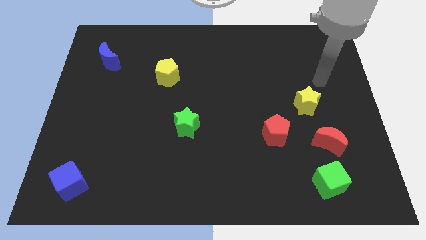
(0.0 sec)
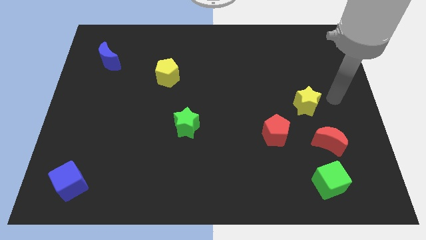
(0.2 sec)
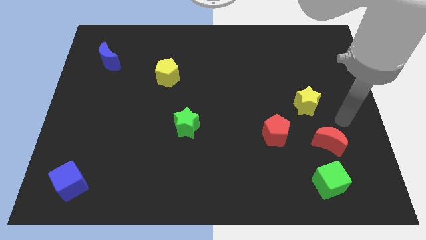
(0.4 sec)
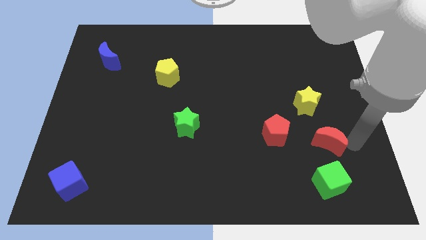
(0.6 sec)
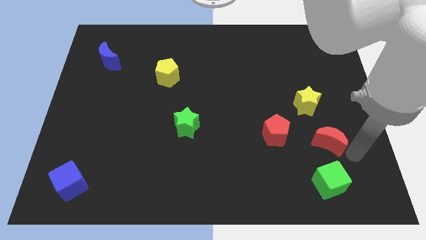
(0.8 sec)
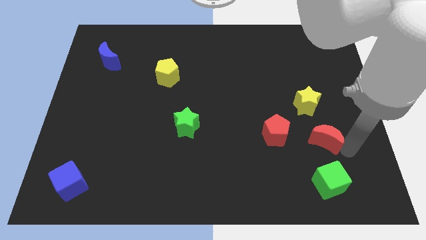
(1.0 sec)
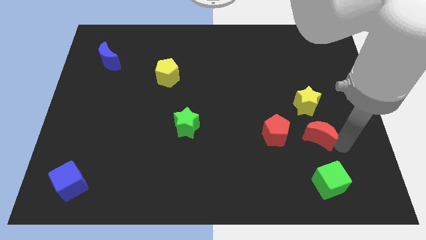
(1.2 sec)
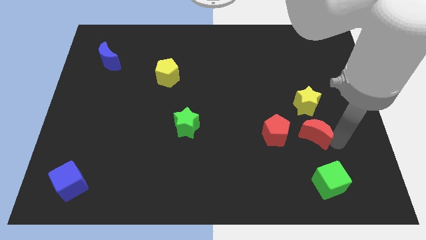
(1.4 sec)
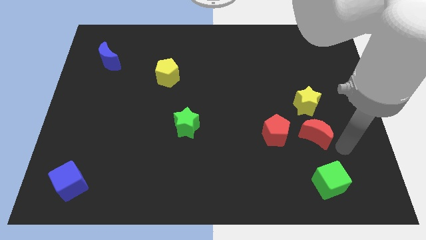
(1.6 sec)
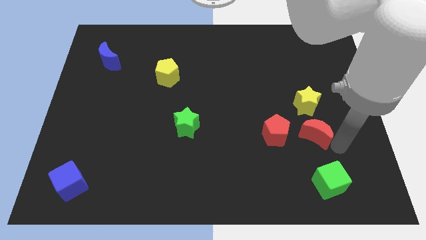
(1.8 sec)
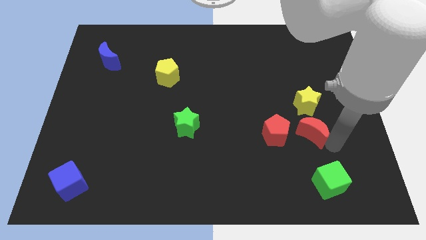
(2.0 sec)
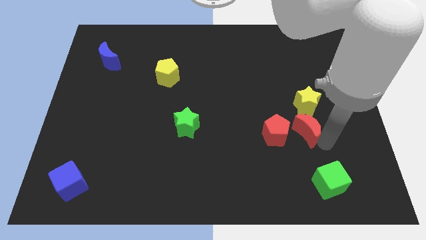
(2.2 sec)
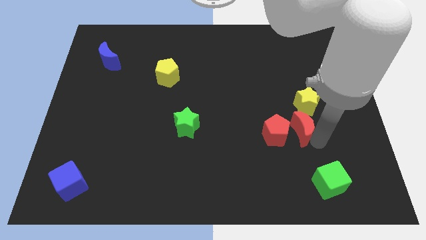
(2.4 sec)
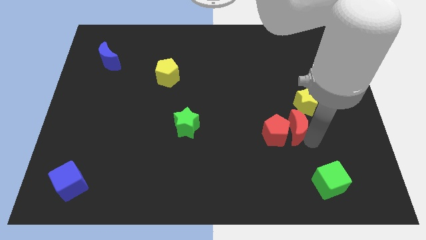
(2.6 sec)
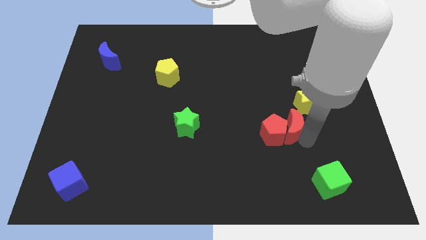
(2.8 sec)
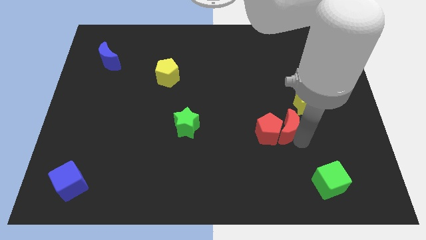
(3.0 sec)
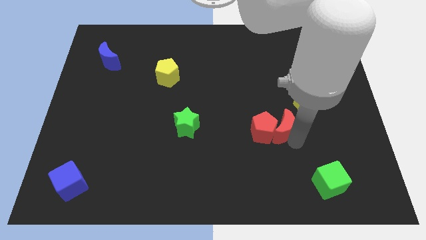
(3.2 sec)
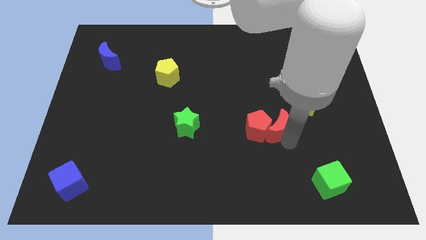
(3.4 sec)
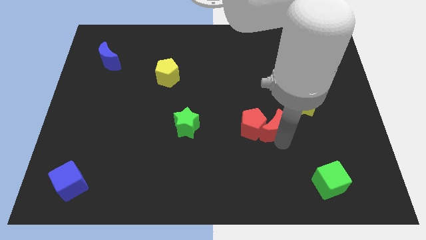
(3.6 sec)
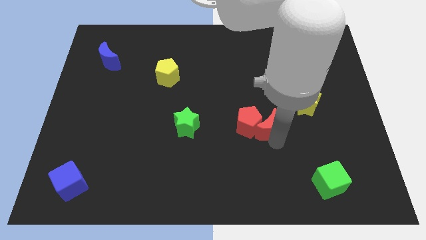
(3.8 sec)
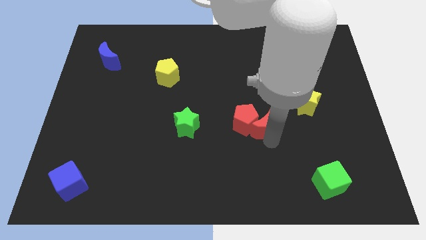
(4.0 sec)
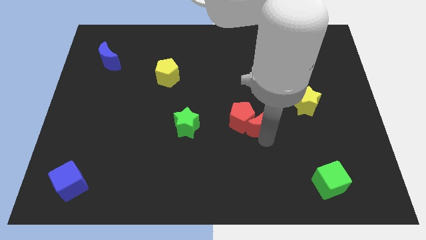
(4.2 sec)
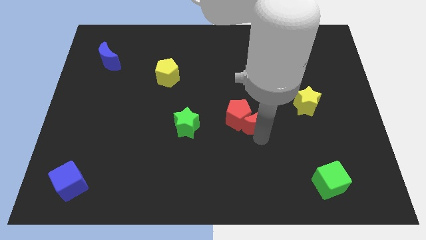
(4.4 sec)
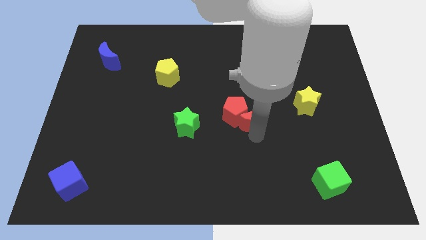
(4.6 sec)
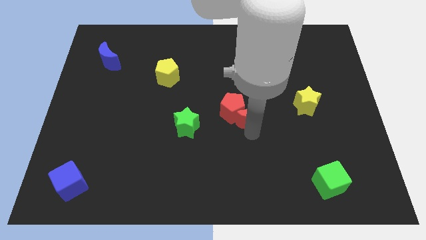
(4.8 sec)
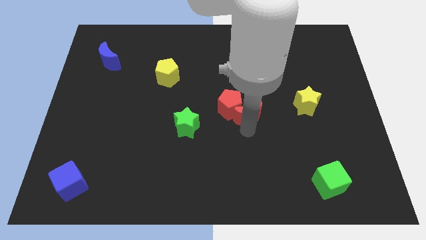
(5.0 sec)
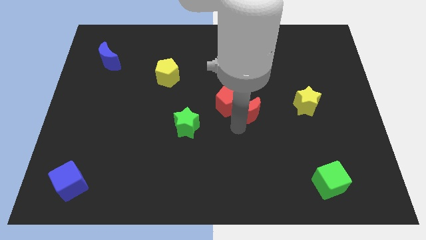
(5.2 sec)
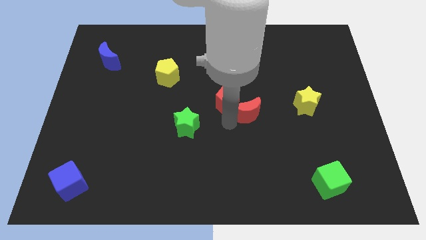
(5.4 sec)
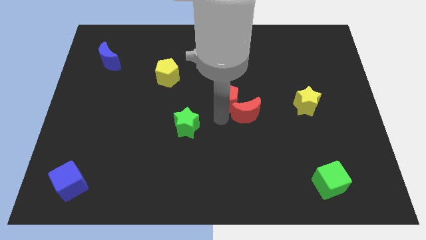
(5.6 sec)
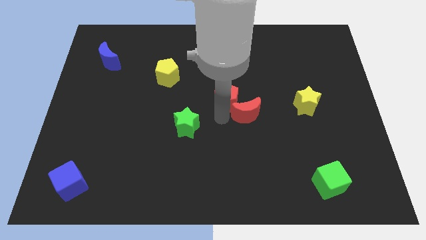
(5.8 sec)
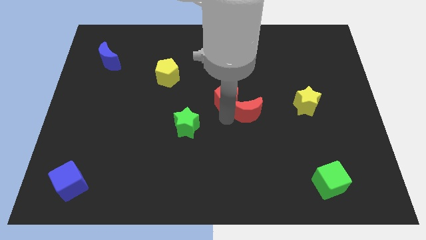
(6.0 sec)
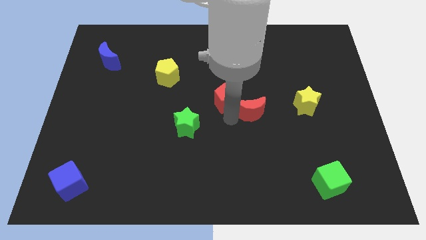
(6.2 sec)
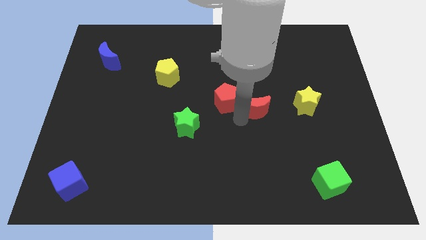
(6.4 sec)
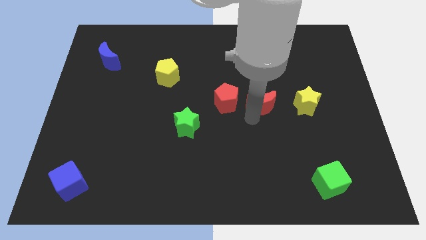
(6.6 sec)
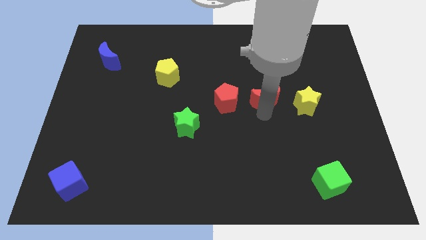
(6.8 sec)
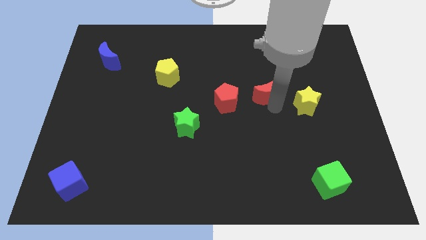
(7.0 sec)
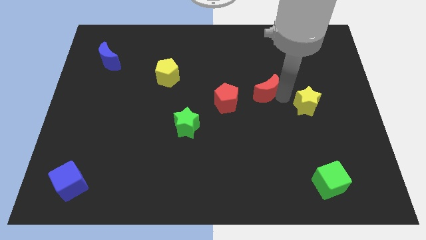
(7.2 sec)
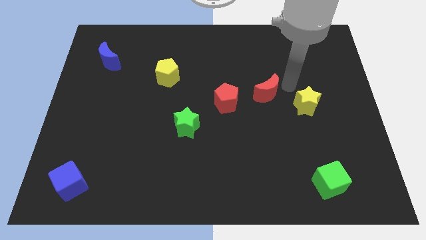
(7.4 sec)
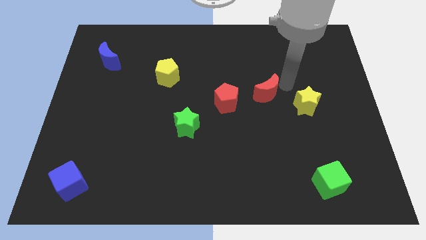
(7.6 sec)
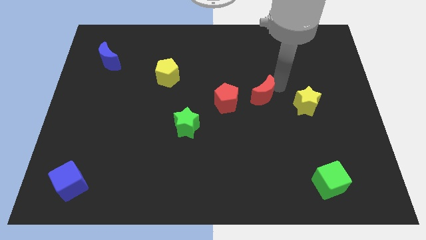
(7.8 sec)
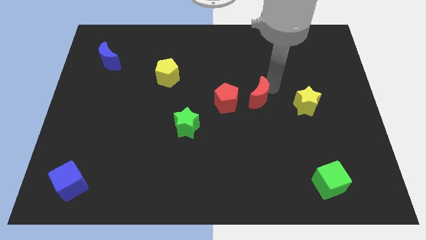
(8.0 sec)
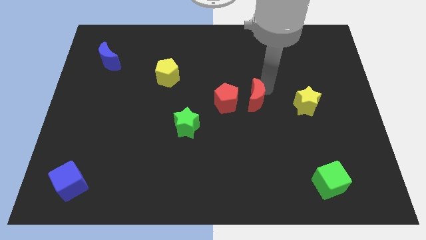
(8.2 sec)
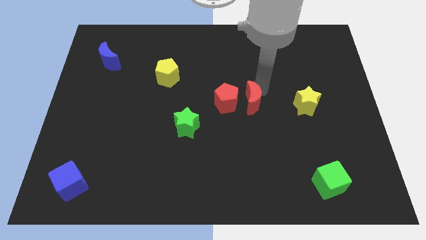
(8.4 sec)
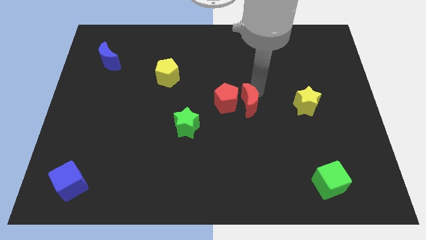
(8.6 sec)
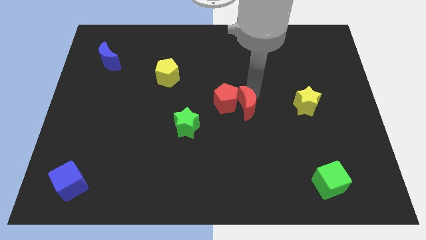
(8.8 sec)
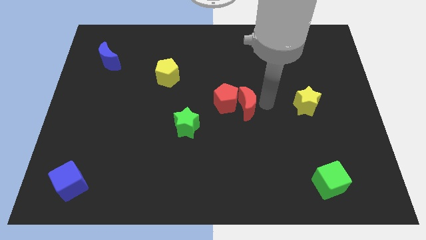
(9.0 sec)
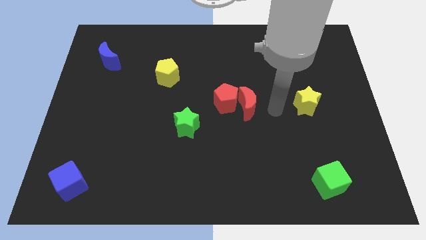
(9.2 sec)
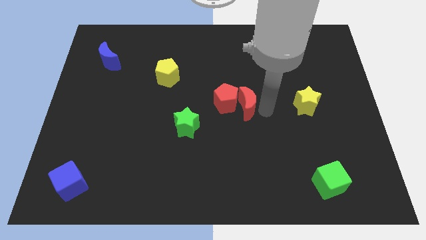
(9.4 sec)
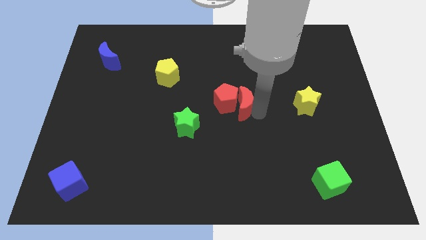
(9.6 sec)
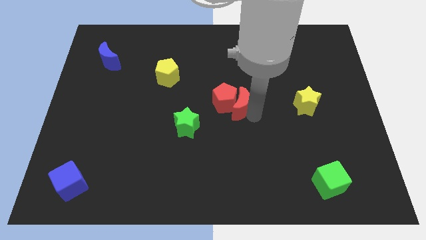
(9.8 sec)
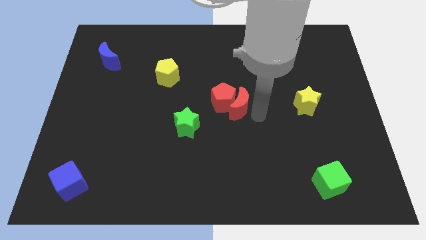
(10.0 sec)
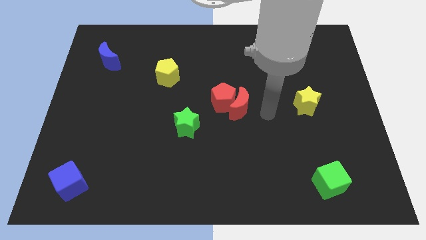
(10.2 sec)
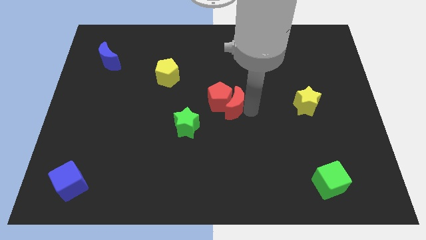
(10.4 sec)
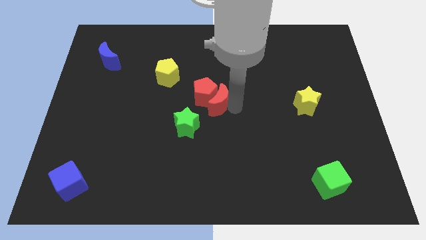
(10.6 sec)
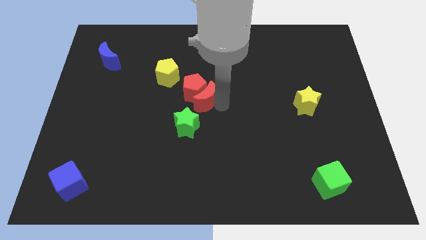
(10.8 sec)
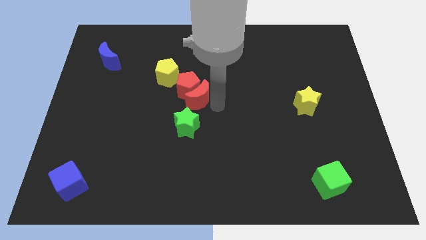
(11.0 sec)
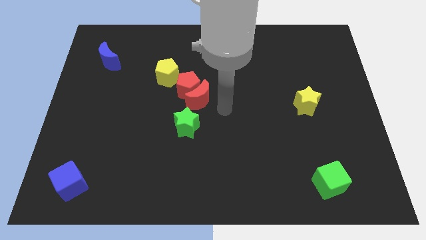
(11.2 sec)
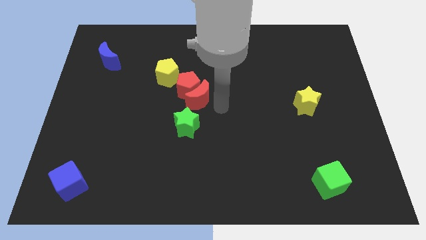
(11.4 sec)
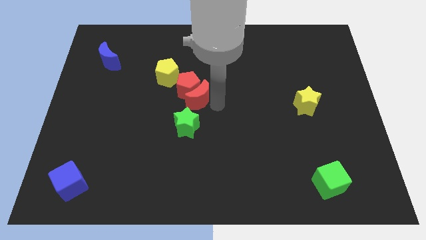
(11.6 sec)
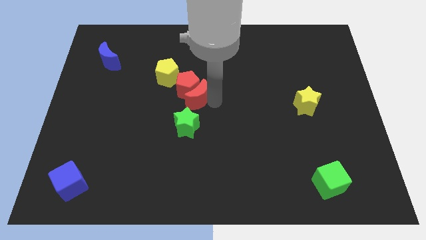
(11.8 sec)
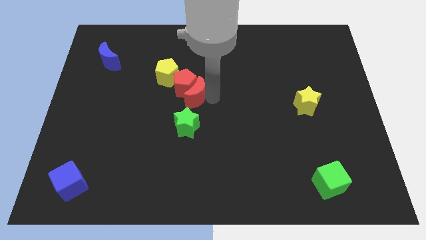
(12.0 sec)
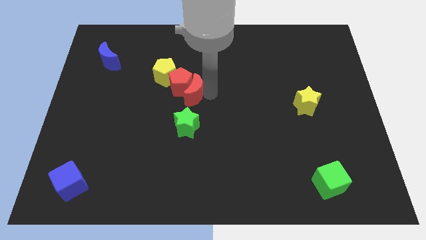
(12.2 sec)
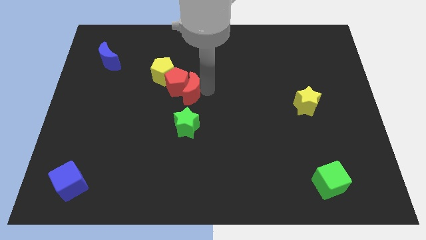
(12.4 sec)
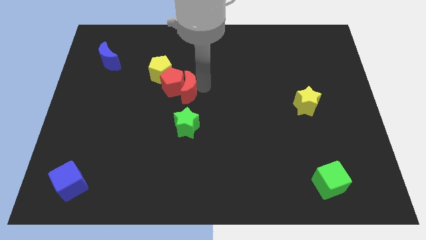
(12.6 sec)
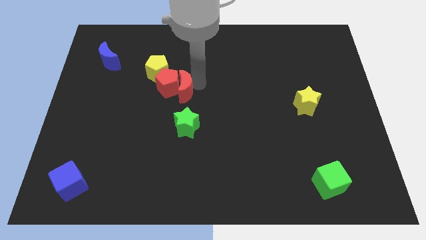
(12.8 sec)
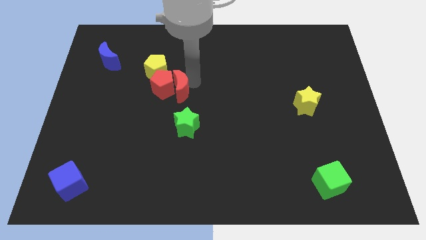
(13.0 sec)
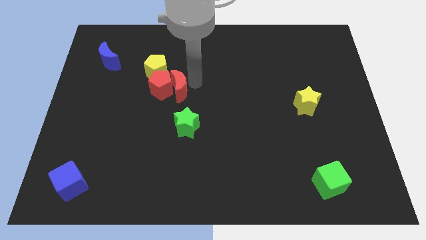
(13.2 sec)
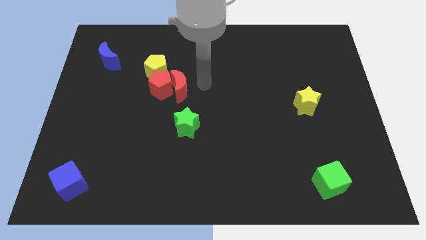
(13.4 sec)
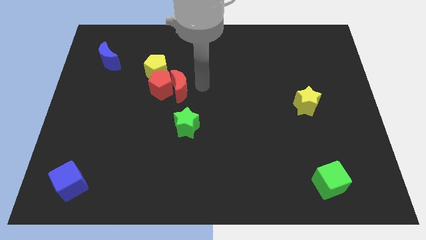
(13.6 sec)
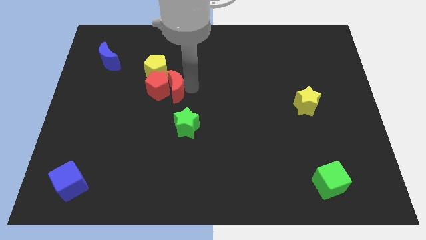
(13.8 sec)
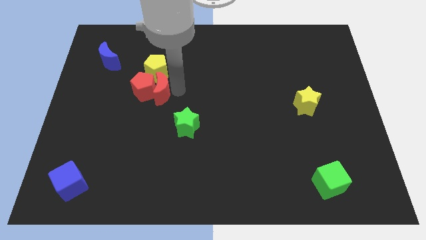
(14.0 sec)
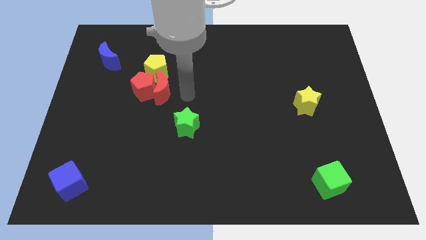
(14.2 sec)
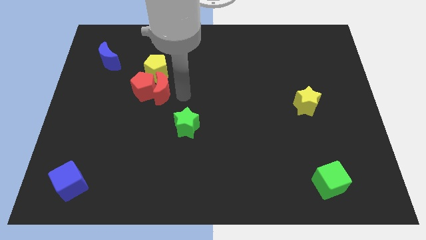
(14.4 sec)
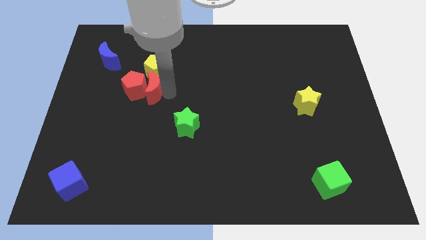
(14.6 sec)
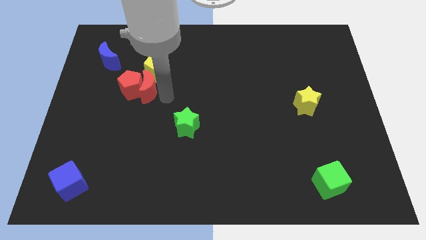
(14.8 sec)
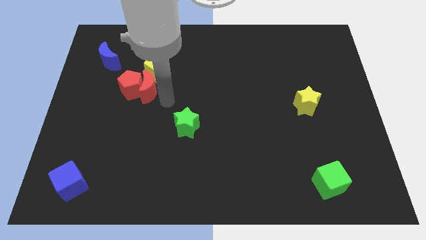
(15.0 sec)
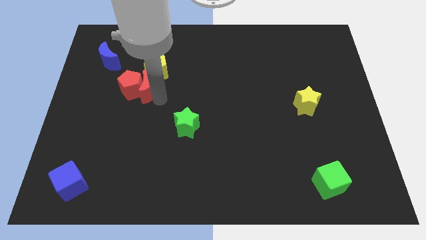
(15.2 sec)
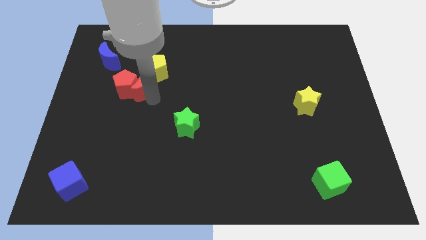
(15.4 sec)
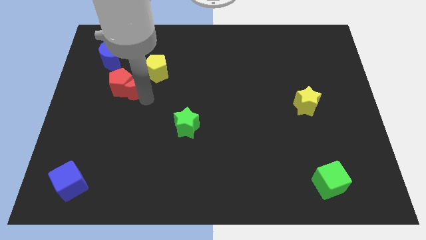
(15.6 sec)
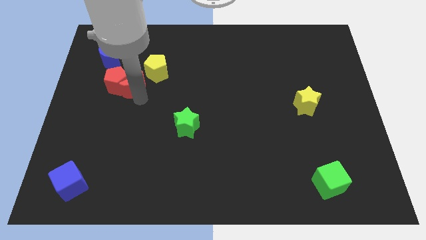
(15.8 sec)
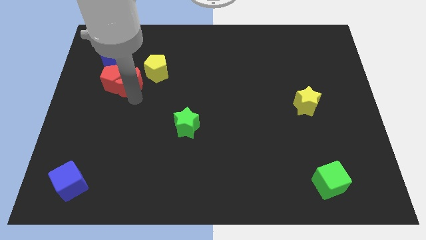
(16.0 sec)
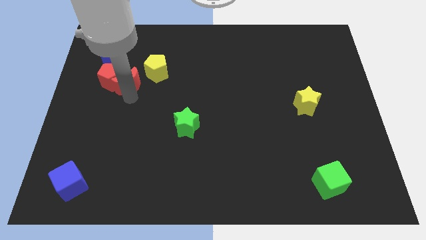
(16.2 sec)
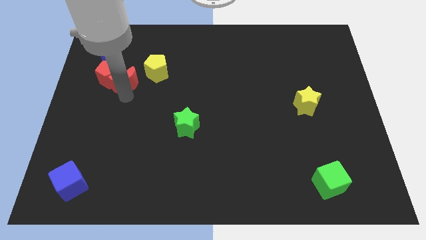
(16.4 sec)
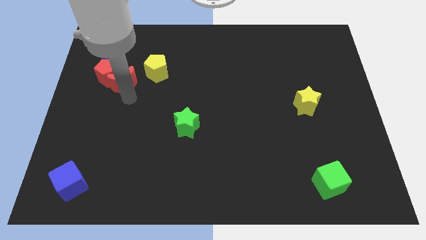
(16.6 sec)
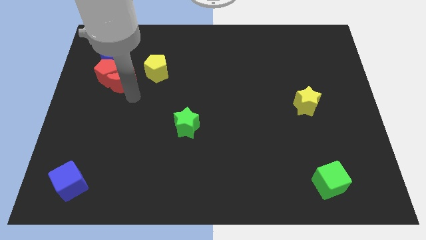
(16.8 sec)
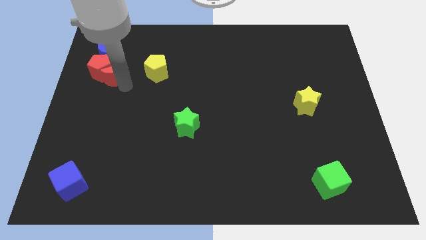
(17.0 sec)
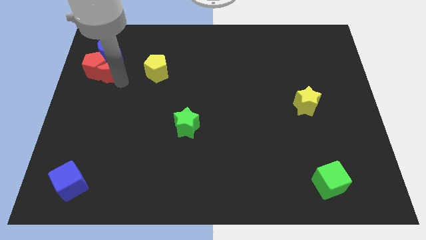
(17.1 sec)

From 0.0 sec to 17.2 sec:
move the red moon next to the blue moon
